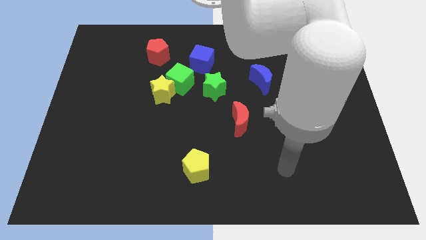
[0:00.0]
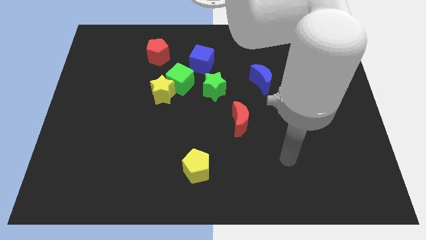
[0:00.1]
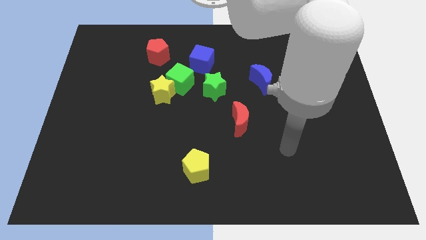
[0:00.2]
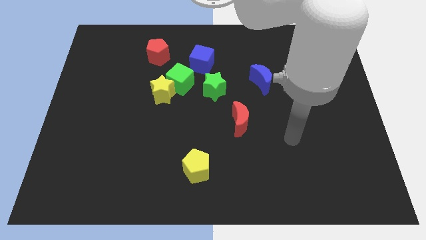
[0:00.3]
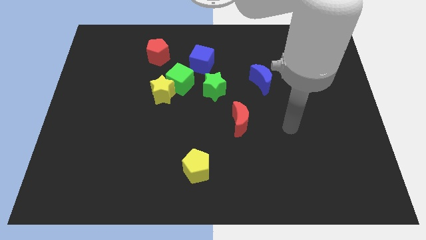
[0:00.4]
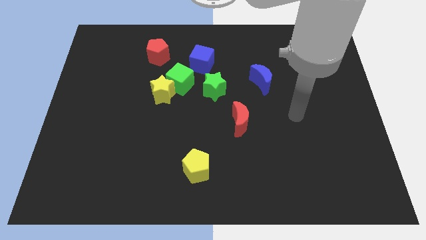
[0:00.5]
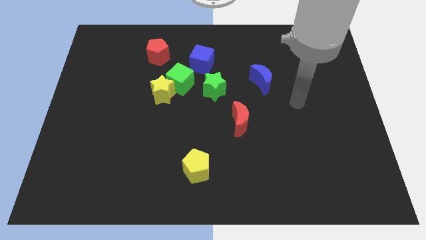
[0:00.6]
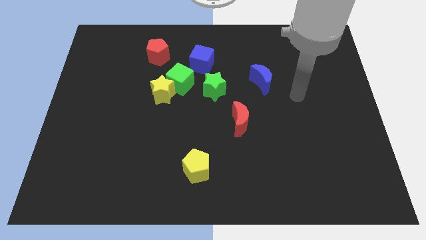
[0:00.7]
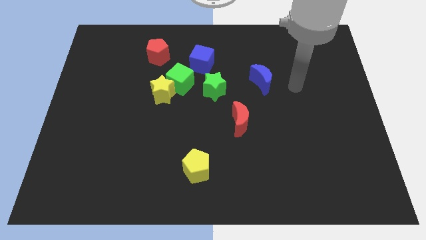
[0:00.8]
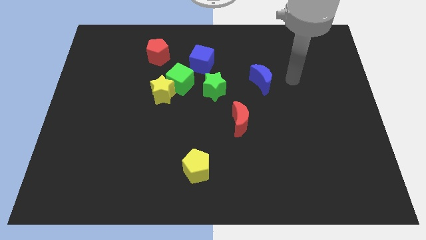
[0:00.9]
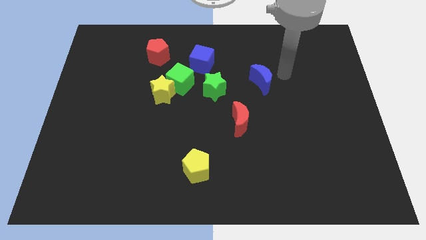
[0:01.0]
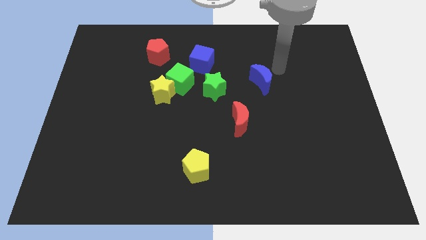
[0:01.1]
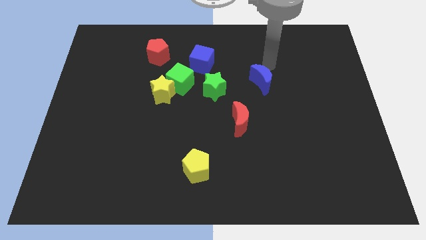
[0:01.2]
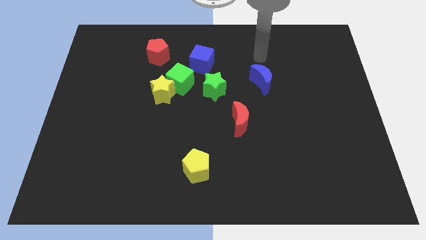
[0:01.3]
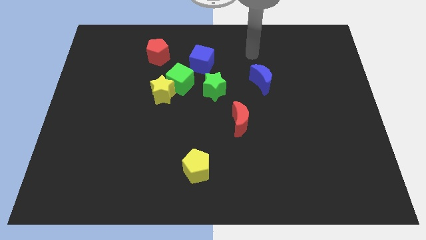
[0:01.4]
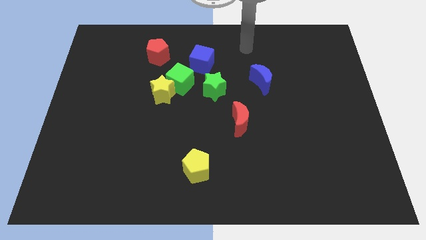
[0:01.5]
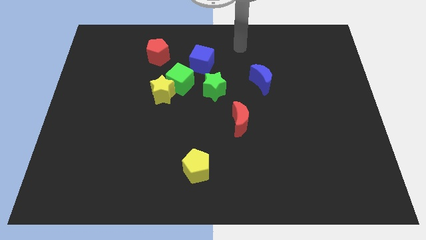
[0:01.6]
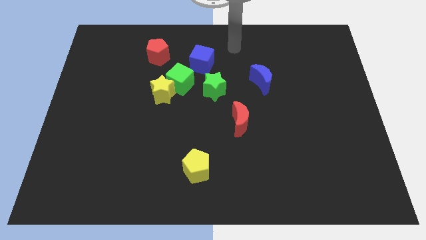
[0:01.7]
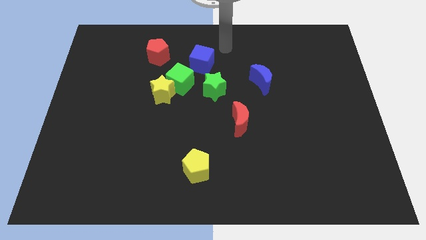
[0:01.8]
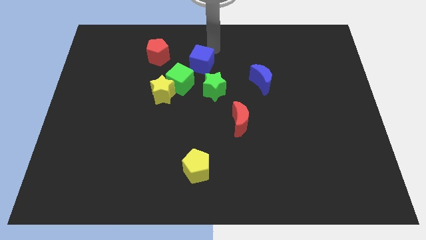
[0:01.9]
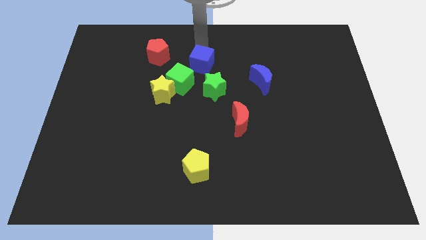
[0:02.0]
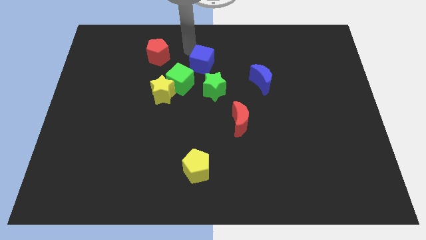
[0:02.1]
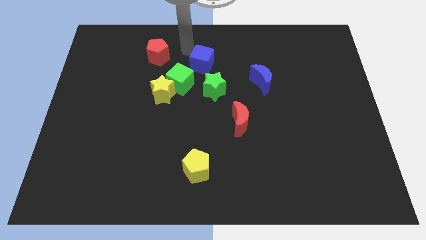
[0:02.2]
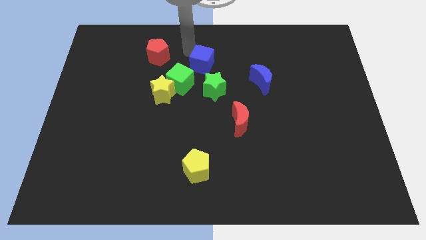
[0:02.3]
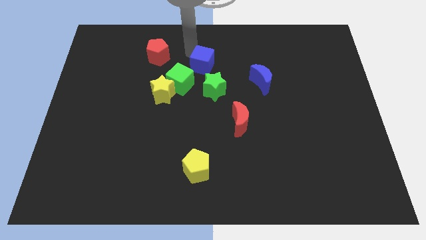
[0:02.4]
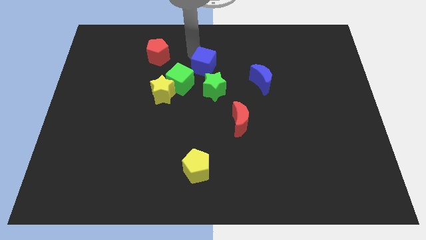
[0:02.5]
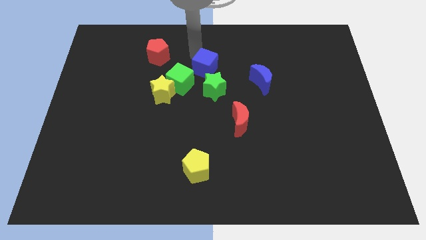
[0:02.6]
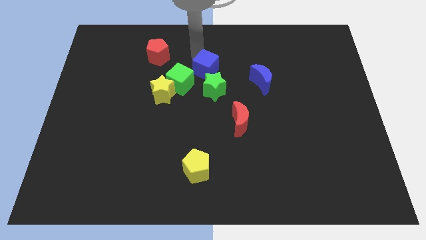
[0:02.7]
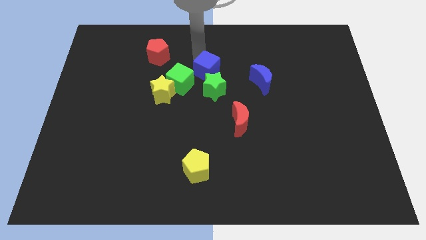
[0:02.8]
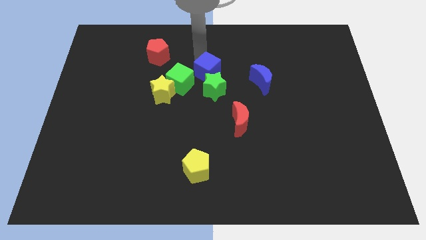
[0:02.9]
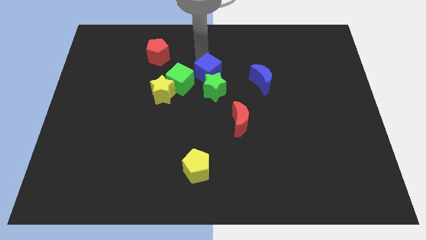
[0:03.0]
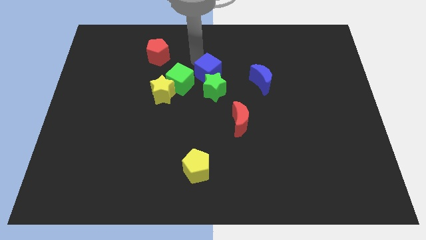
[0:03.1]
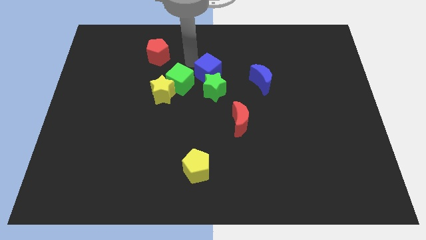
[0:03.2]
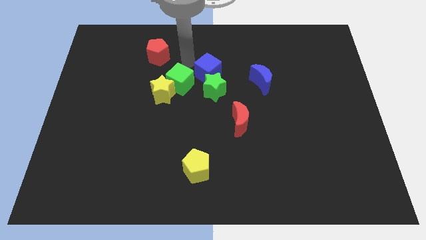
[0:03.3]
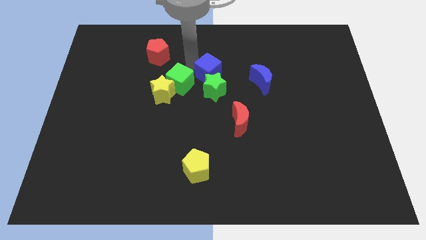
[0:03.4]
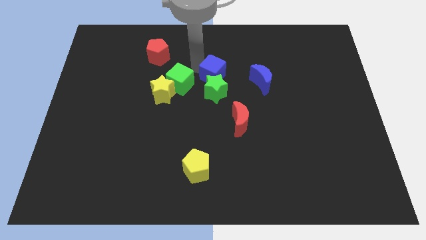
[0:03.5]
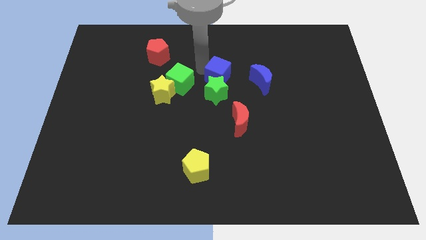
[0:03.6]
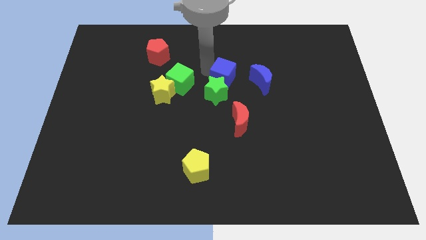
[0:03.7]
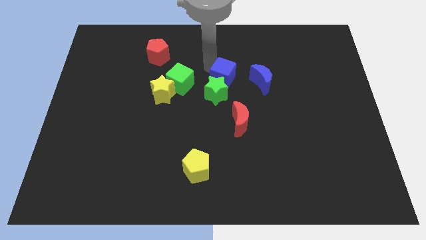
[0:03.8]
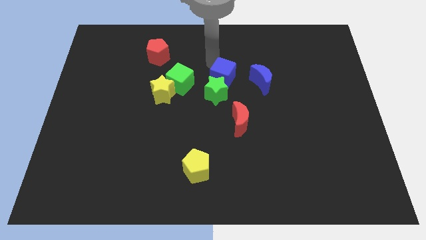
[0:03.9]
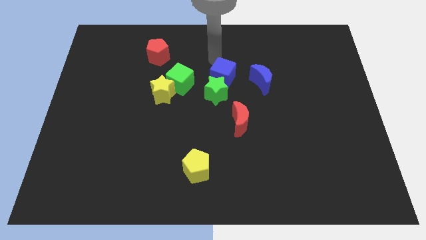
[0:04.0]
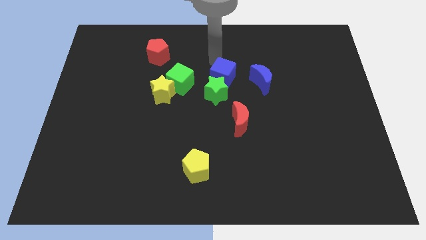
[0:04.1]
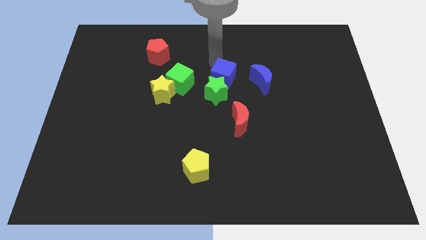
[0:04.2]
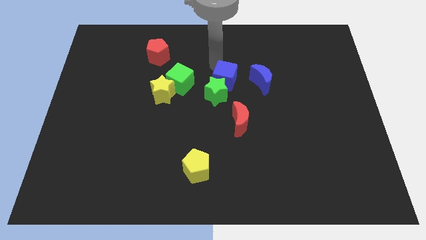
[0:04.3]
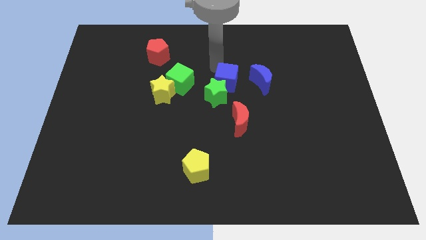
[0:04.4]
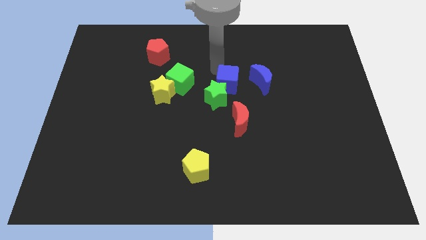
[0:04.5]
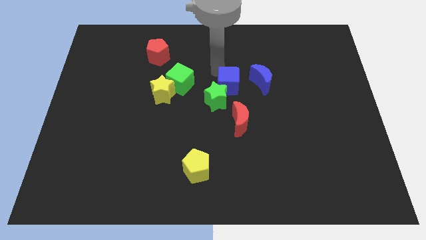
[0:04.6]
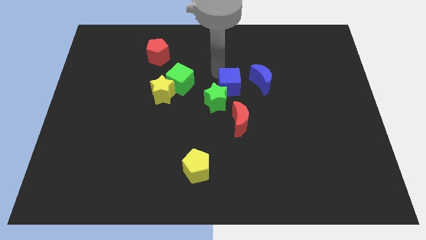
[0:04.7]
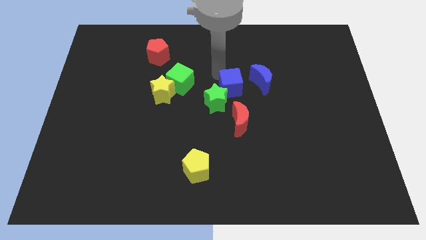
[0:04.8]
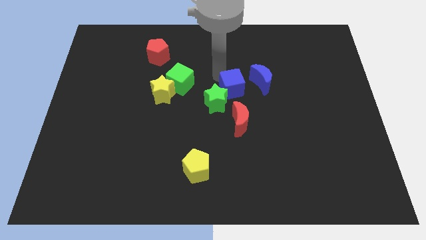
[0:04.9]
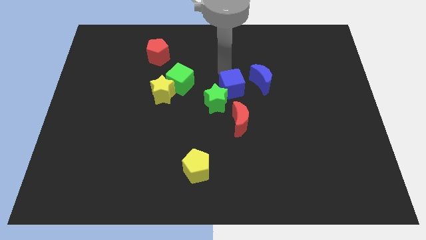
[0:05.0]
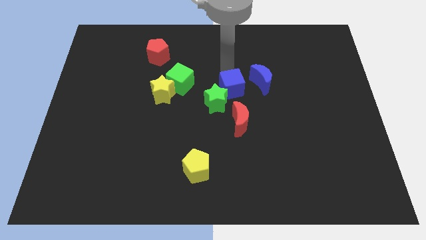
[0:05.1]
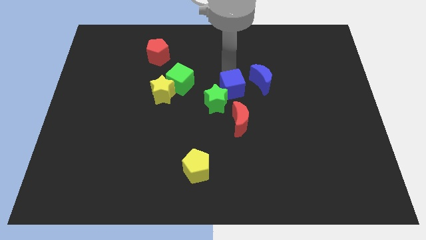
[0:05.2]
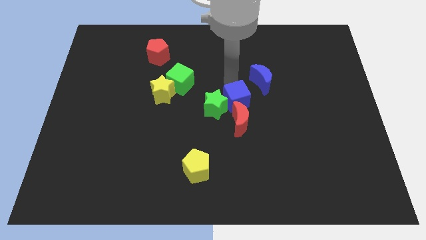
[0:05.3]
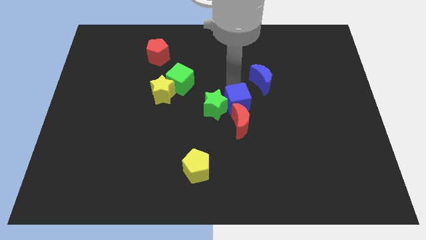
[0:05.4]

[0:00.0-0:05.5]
put the blue cube next to the red moon

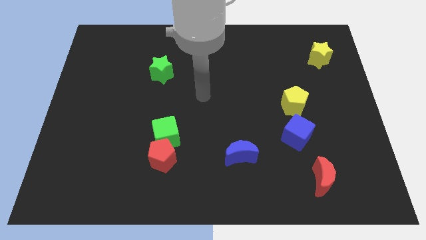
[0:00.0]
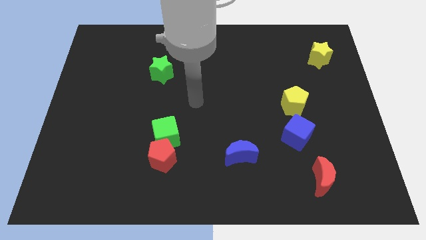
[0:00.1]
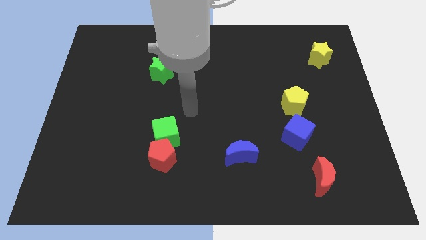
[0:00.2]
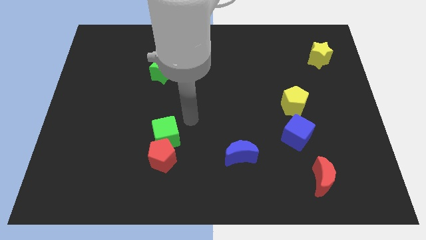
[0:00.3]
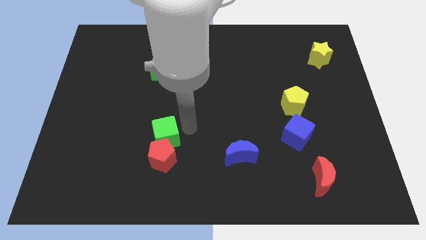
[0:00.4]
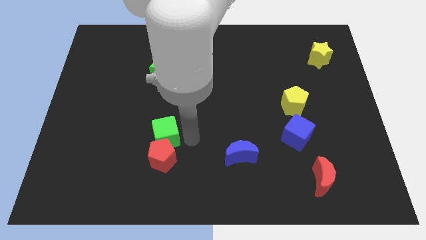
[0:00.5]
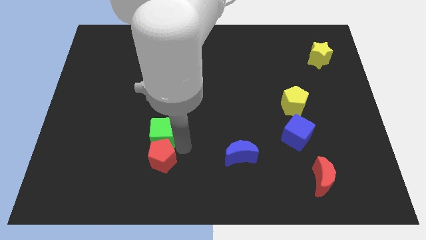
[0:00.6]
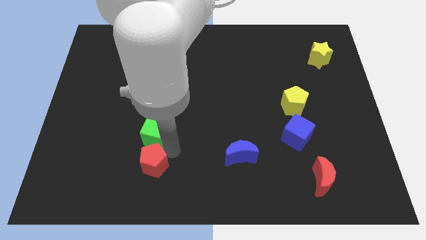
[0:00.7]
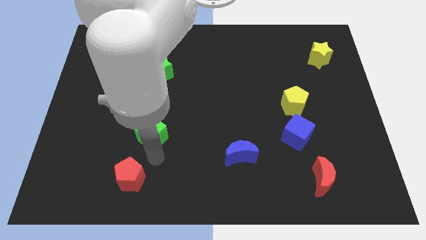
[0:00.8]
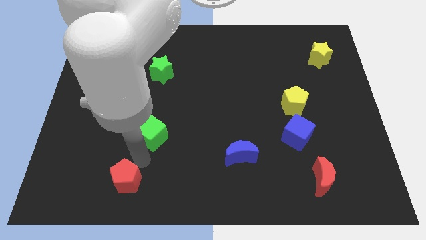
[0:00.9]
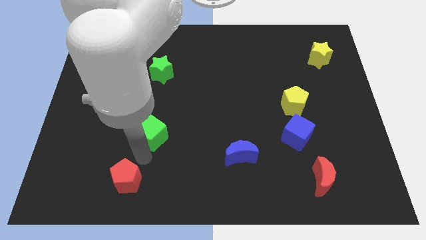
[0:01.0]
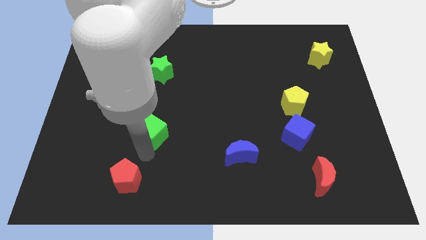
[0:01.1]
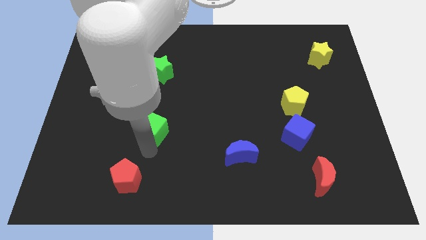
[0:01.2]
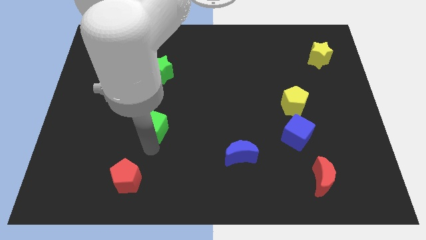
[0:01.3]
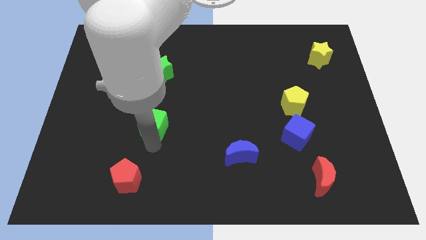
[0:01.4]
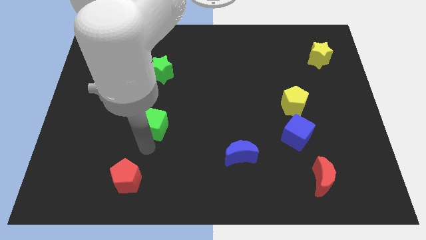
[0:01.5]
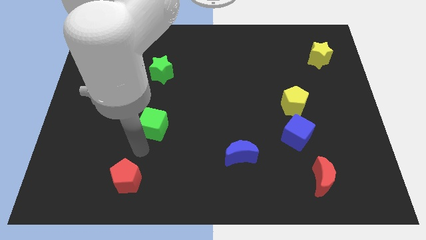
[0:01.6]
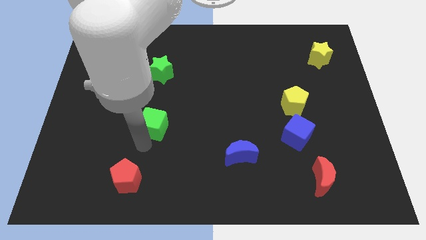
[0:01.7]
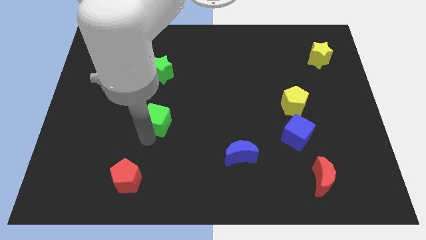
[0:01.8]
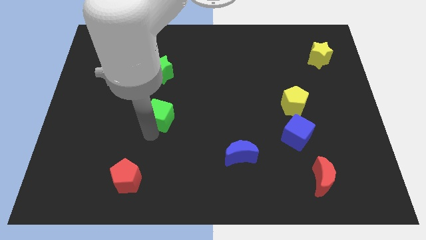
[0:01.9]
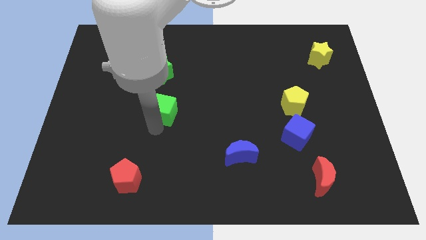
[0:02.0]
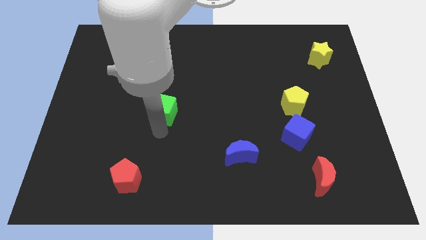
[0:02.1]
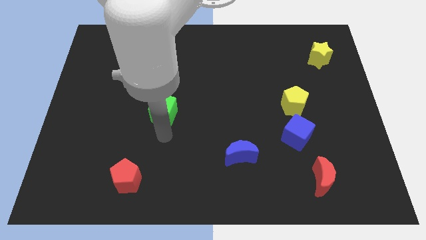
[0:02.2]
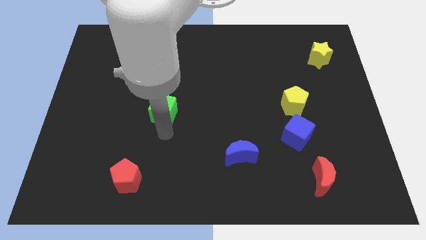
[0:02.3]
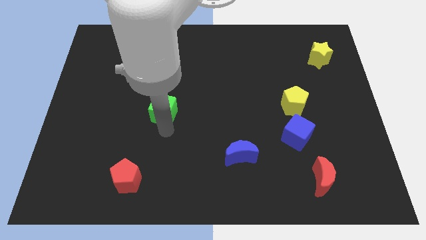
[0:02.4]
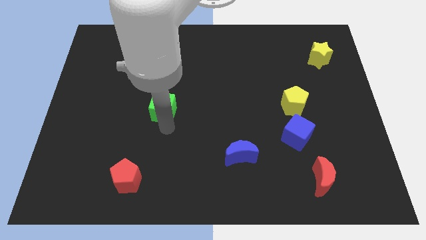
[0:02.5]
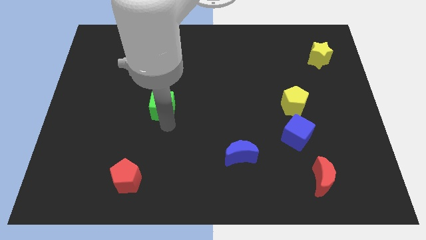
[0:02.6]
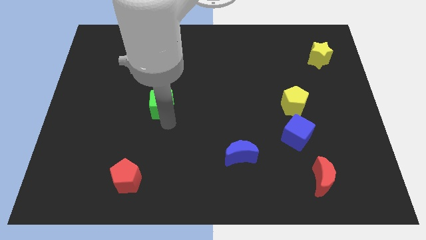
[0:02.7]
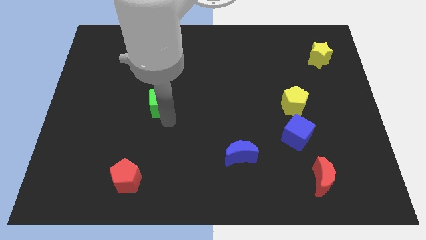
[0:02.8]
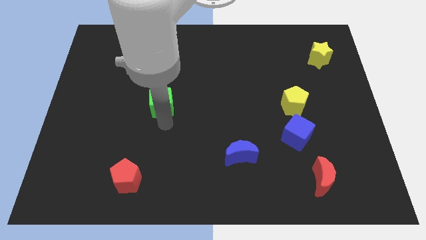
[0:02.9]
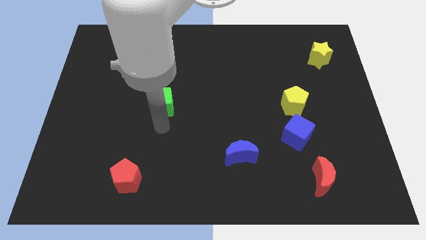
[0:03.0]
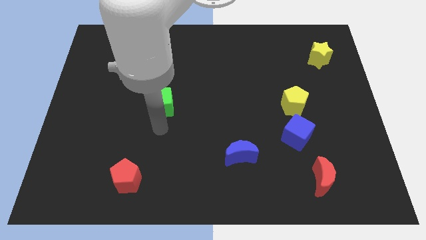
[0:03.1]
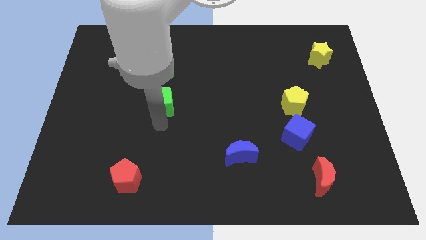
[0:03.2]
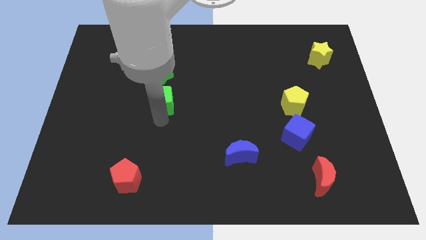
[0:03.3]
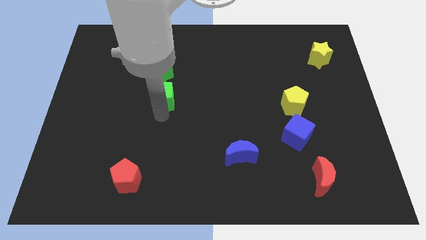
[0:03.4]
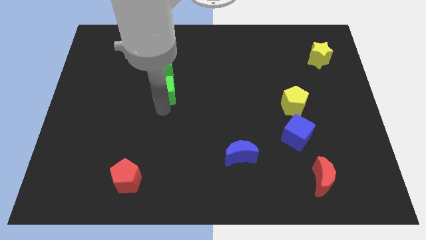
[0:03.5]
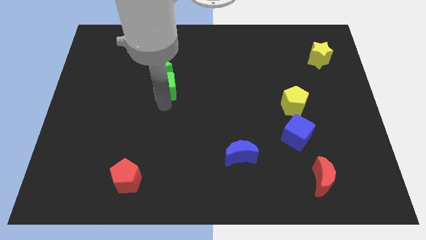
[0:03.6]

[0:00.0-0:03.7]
move the green cube to the green star
